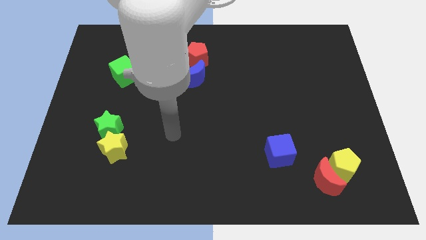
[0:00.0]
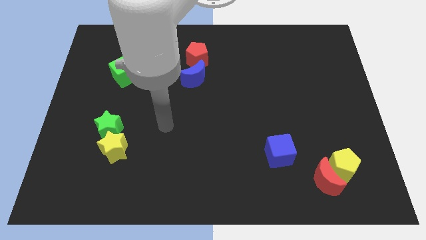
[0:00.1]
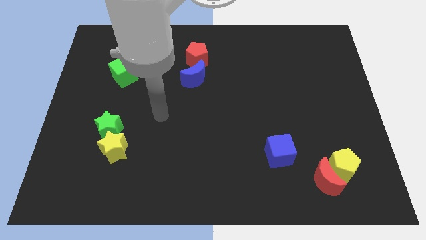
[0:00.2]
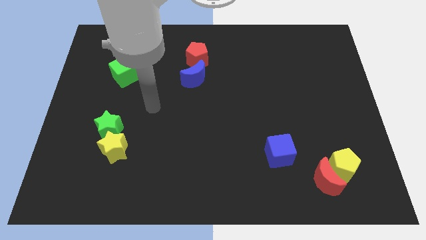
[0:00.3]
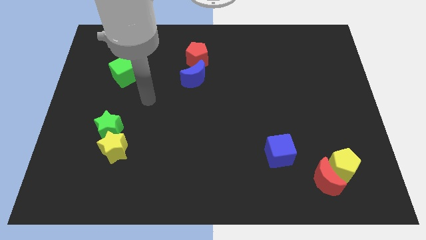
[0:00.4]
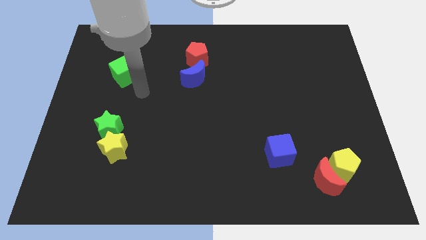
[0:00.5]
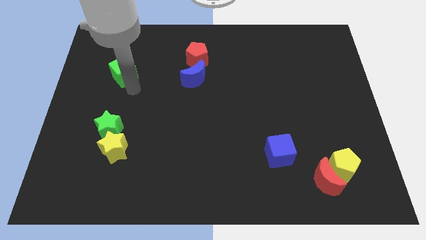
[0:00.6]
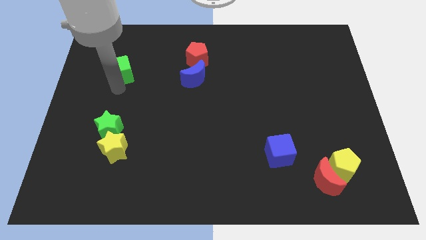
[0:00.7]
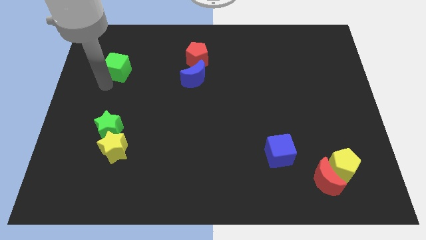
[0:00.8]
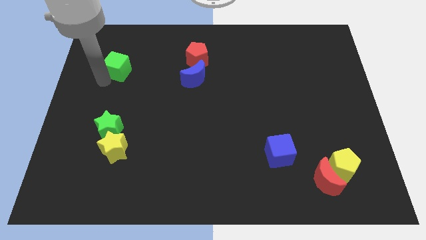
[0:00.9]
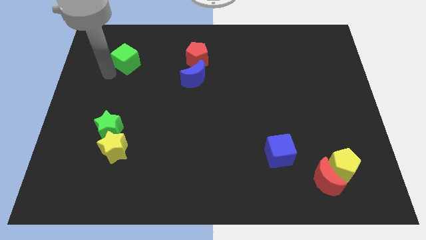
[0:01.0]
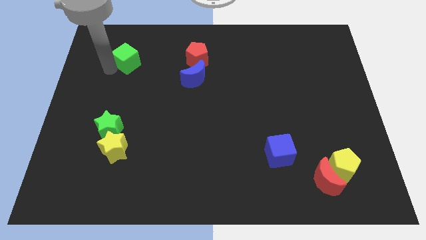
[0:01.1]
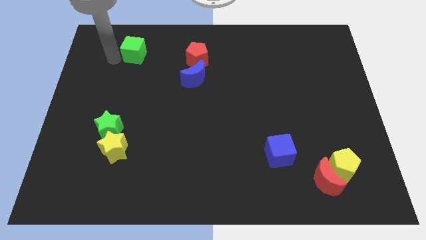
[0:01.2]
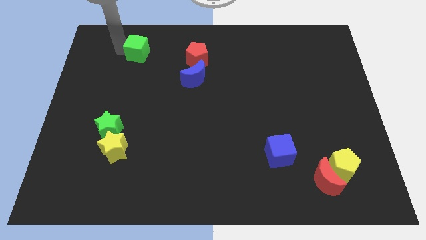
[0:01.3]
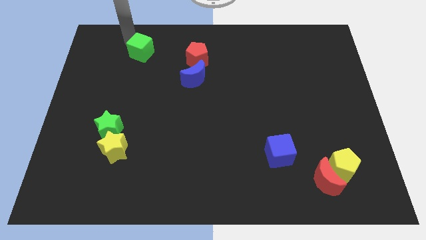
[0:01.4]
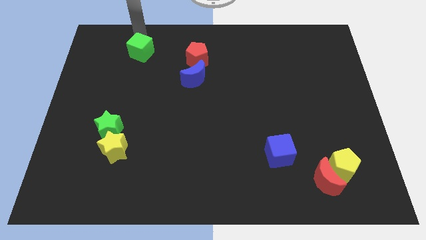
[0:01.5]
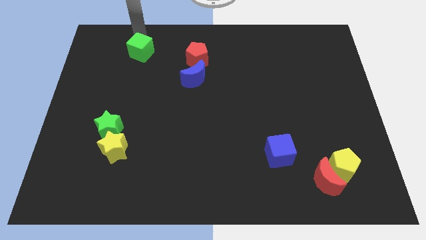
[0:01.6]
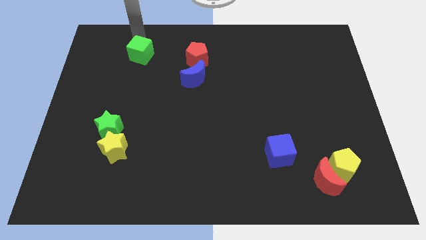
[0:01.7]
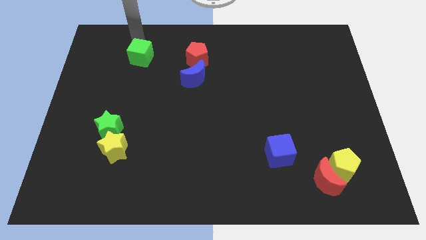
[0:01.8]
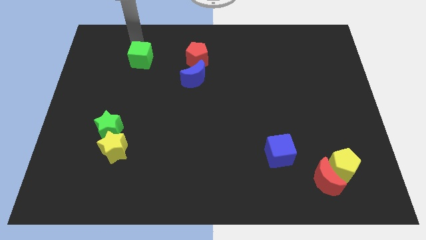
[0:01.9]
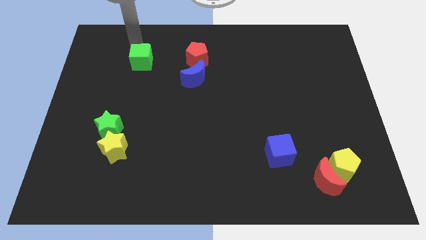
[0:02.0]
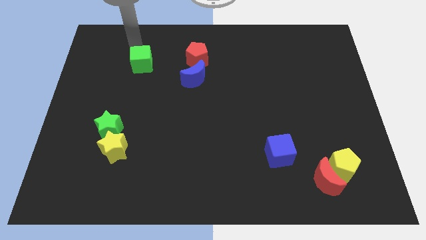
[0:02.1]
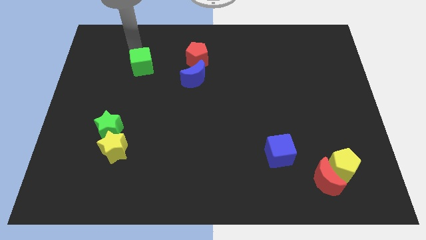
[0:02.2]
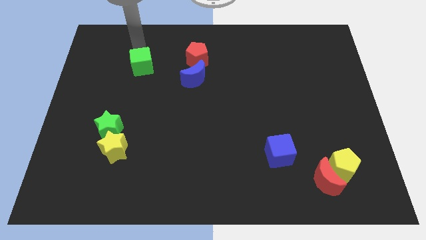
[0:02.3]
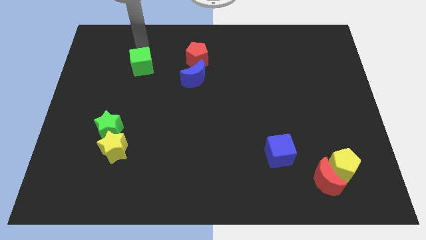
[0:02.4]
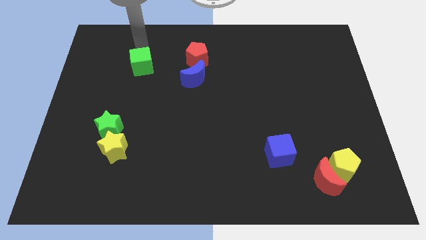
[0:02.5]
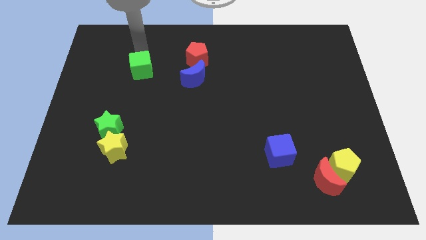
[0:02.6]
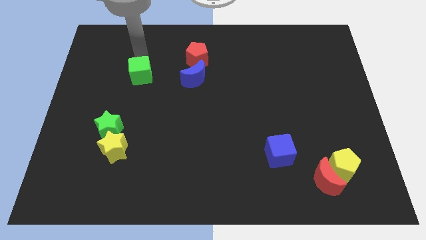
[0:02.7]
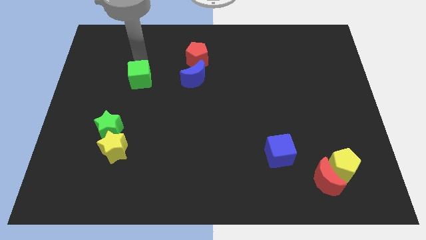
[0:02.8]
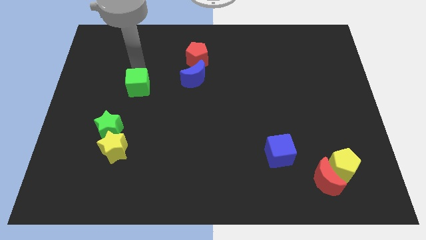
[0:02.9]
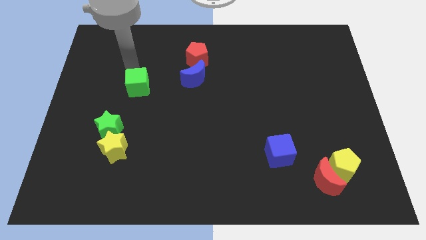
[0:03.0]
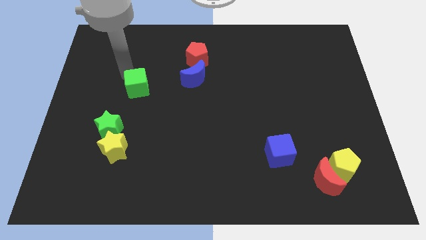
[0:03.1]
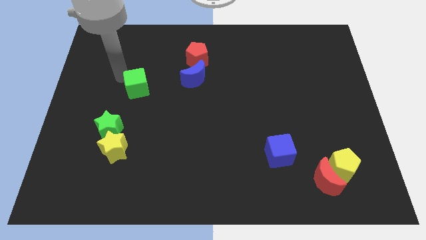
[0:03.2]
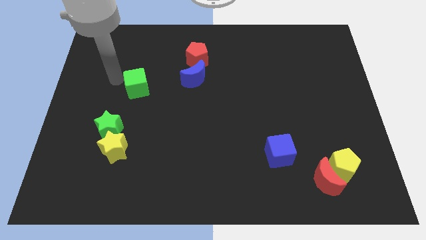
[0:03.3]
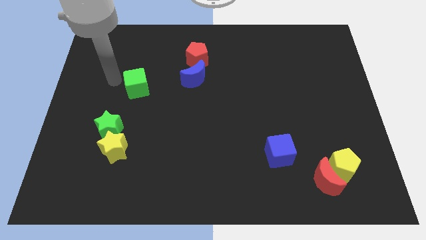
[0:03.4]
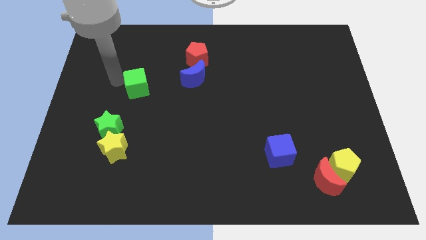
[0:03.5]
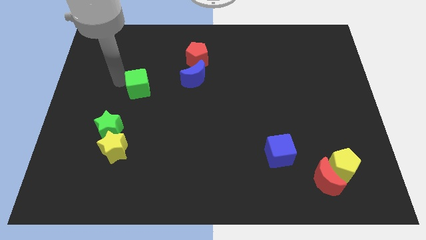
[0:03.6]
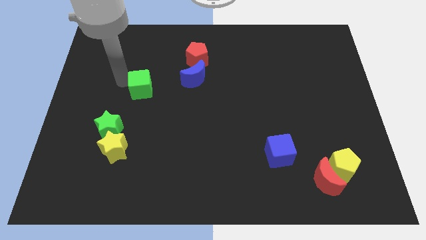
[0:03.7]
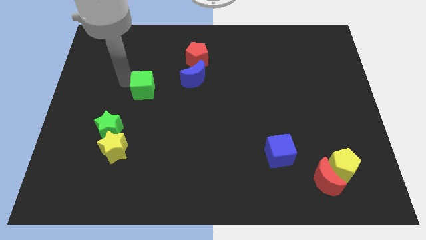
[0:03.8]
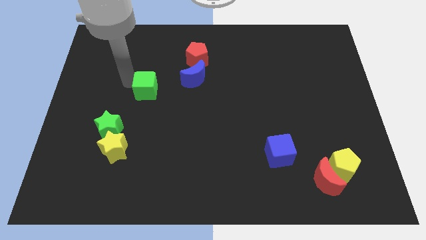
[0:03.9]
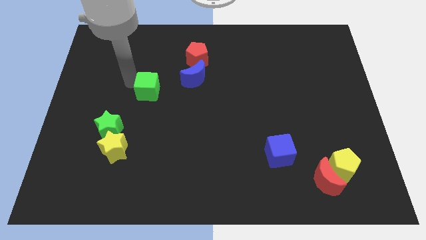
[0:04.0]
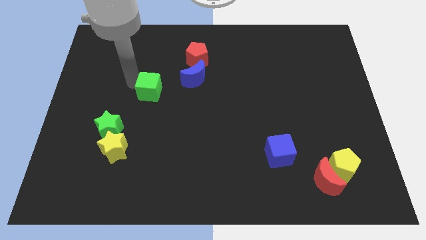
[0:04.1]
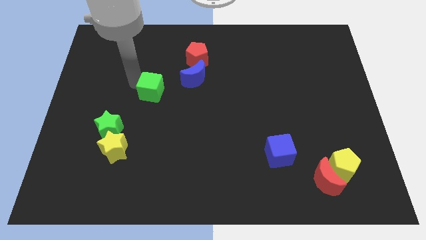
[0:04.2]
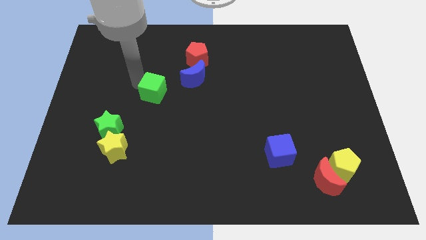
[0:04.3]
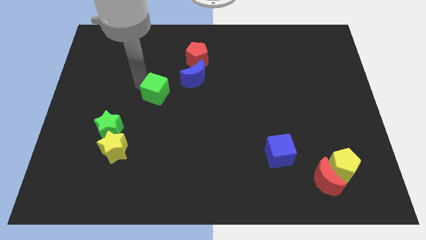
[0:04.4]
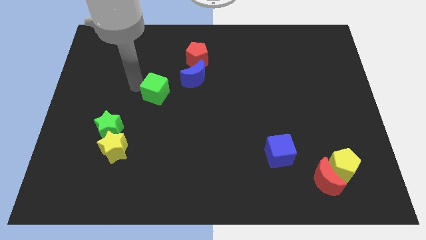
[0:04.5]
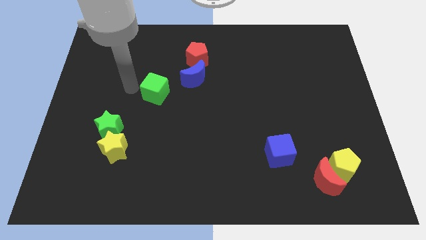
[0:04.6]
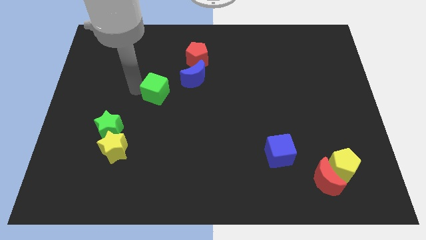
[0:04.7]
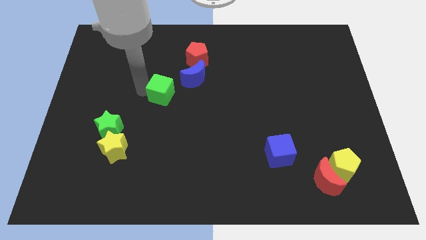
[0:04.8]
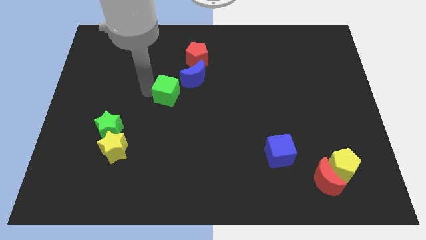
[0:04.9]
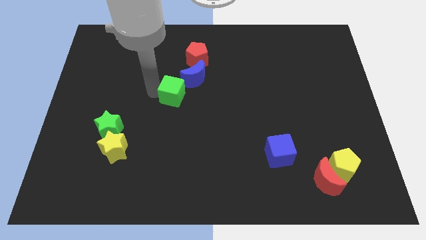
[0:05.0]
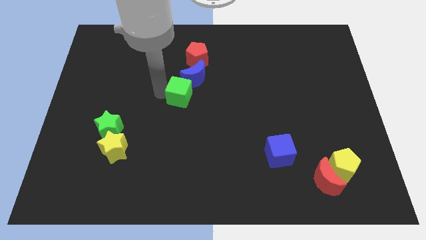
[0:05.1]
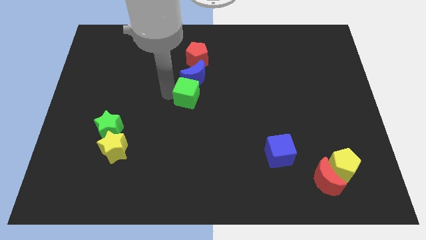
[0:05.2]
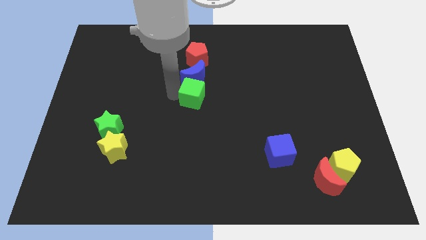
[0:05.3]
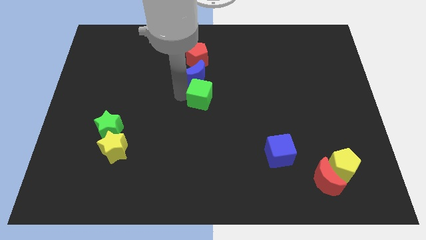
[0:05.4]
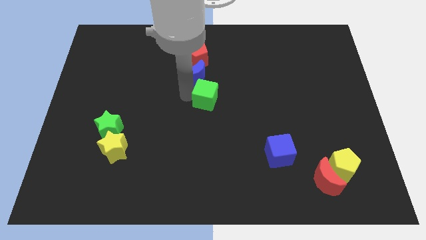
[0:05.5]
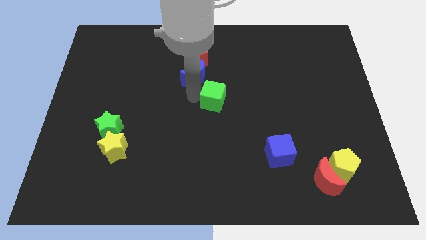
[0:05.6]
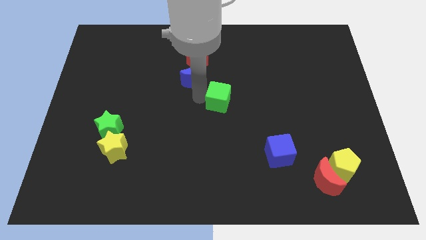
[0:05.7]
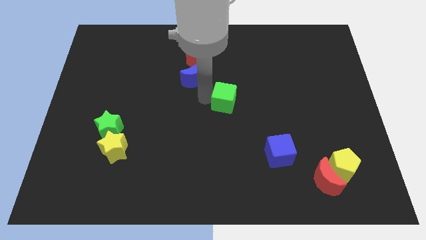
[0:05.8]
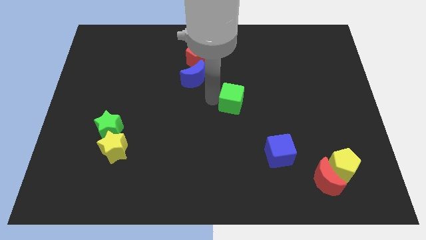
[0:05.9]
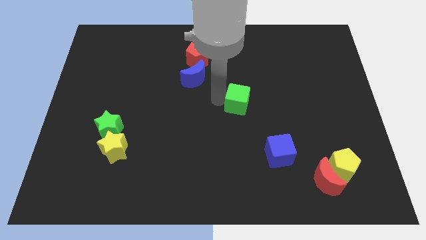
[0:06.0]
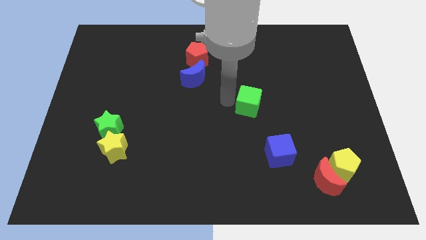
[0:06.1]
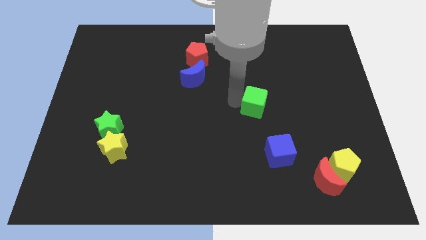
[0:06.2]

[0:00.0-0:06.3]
put the green cube to the top side of the blue cube

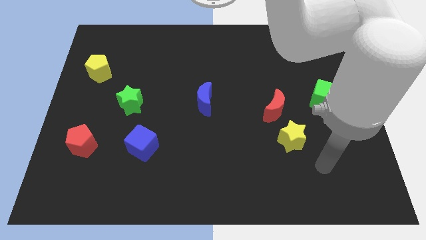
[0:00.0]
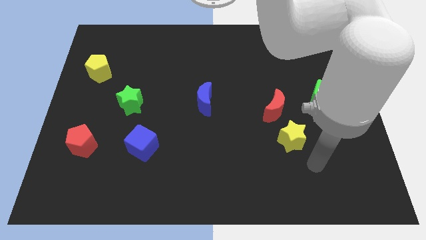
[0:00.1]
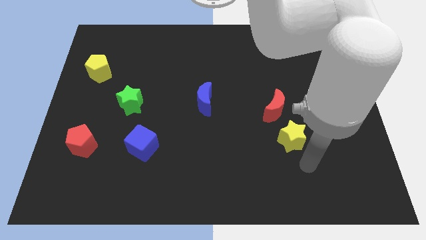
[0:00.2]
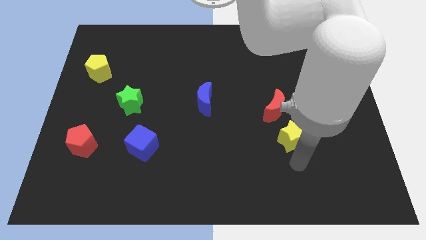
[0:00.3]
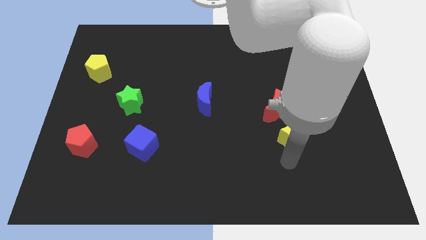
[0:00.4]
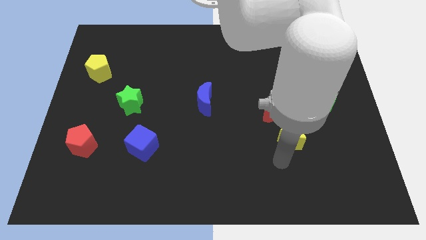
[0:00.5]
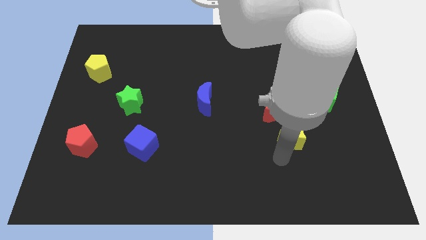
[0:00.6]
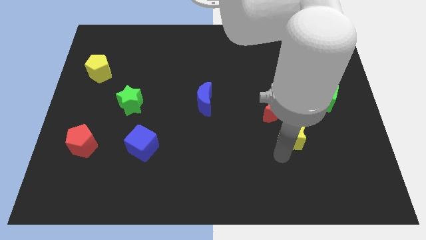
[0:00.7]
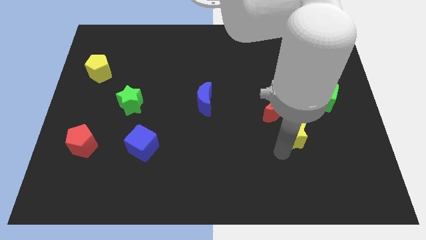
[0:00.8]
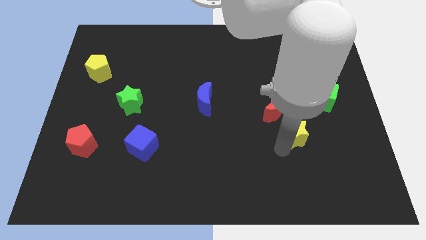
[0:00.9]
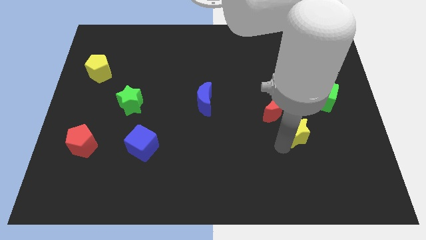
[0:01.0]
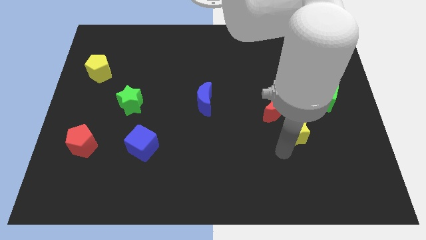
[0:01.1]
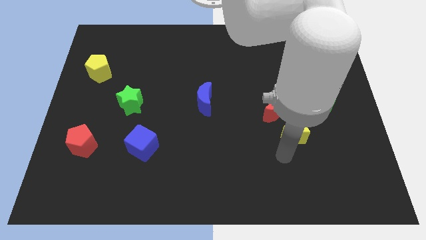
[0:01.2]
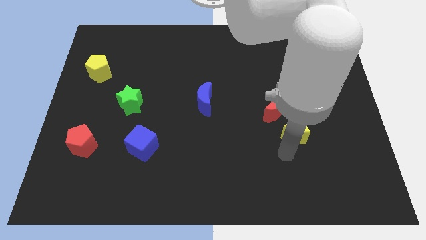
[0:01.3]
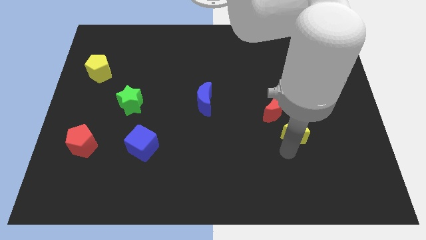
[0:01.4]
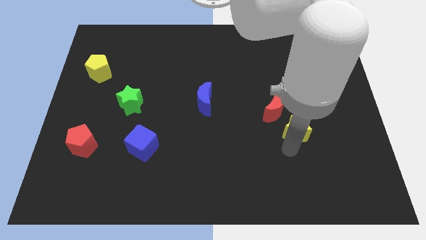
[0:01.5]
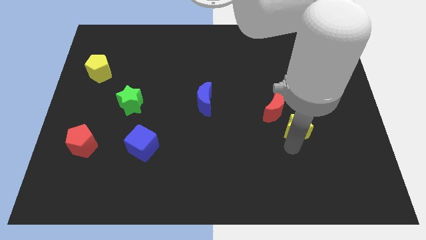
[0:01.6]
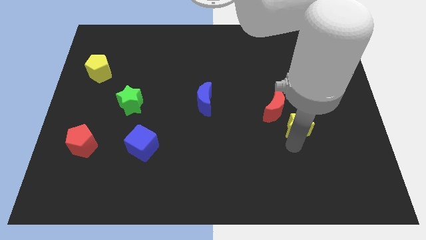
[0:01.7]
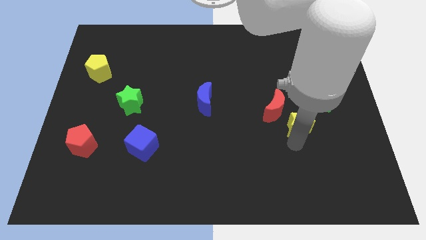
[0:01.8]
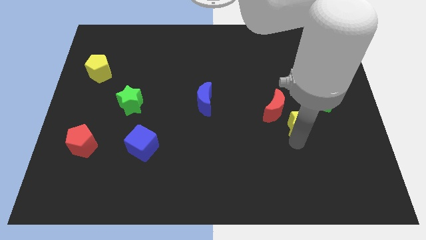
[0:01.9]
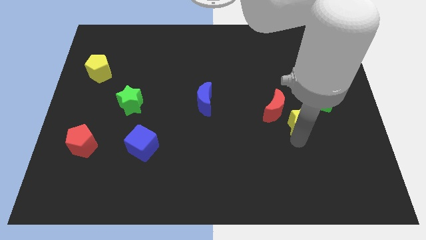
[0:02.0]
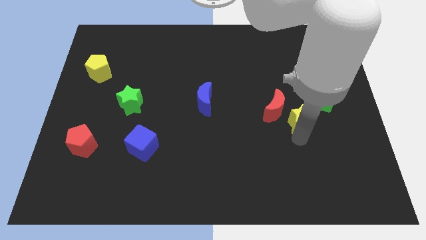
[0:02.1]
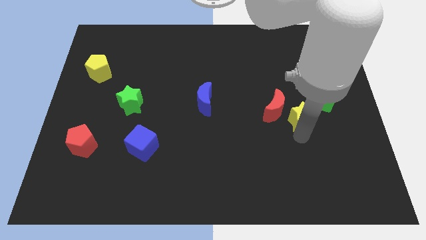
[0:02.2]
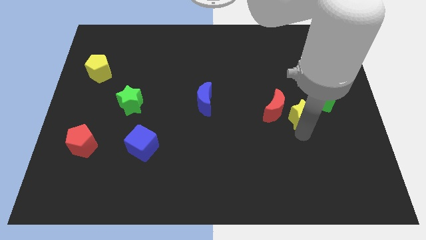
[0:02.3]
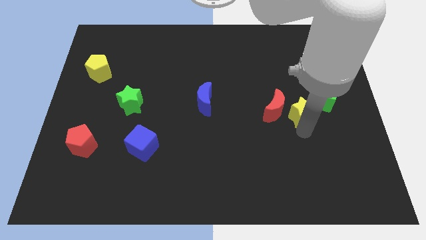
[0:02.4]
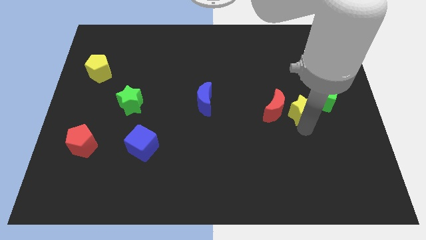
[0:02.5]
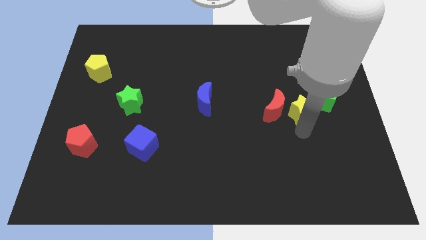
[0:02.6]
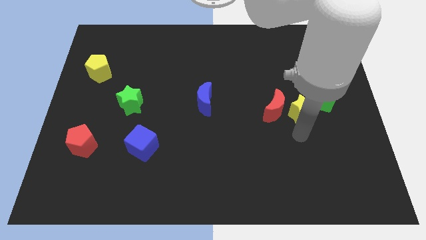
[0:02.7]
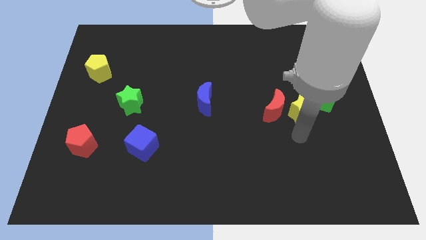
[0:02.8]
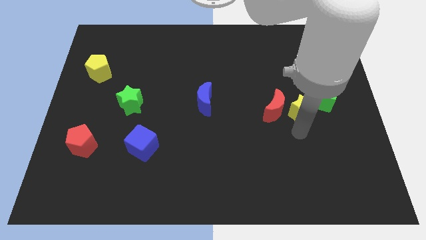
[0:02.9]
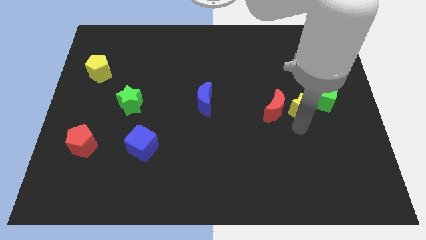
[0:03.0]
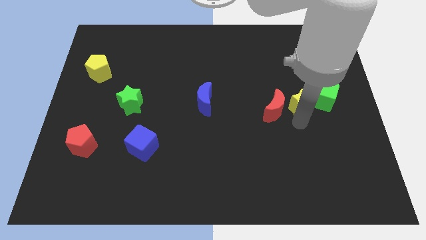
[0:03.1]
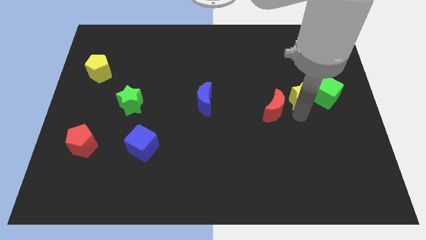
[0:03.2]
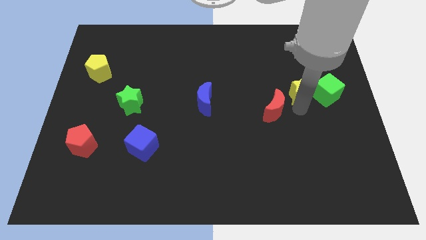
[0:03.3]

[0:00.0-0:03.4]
put the yellow star diagonally up and to the left of the green cube
